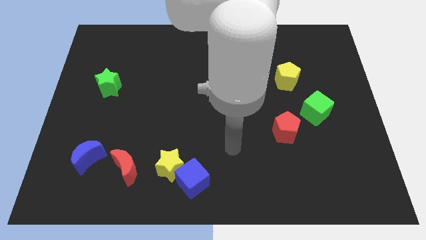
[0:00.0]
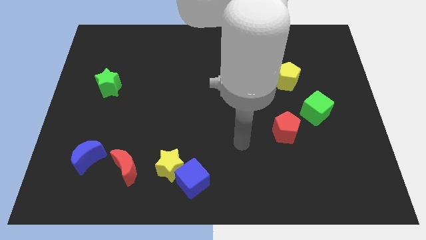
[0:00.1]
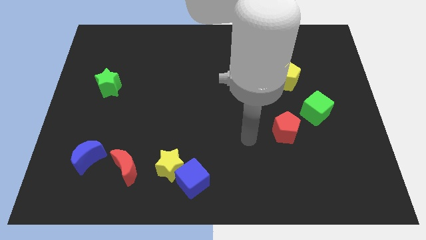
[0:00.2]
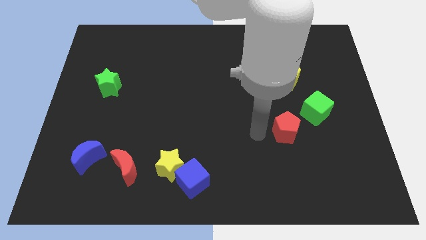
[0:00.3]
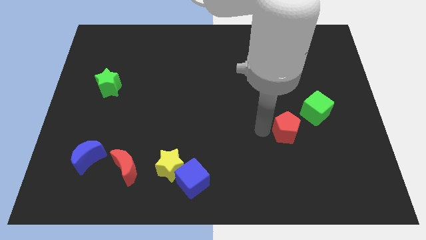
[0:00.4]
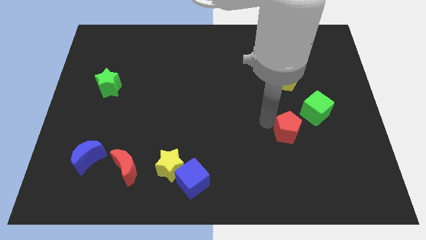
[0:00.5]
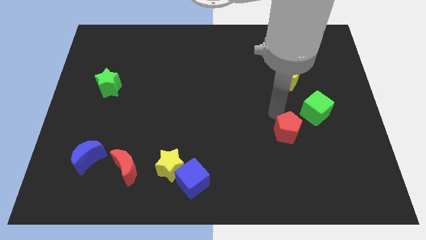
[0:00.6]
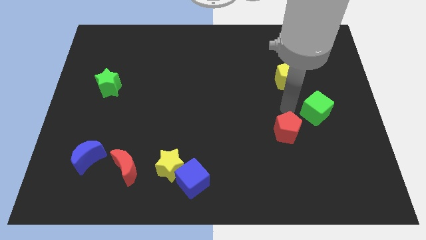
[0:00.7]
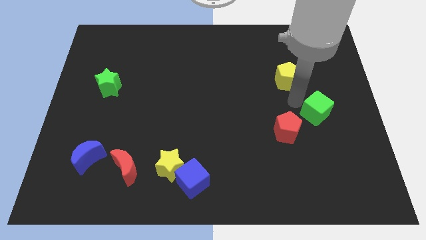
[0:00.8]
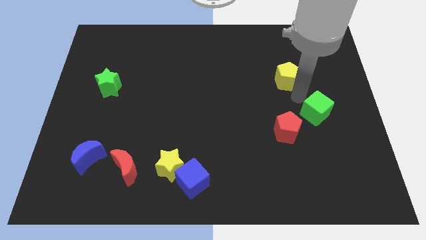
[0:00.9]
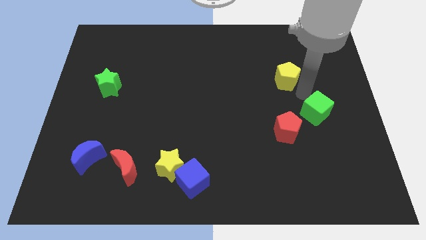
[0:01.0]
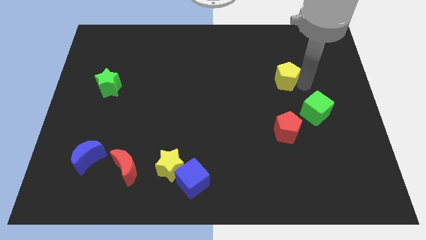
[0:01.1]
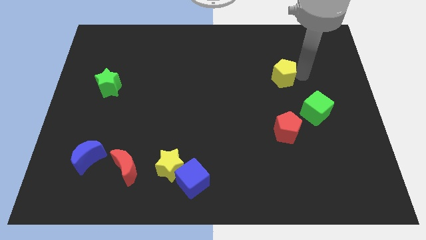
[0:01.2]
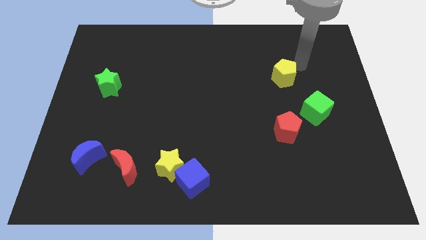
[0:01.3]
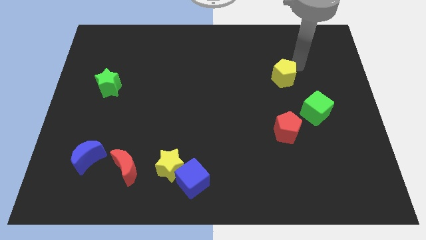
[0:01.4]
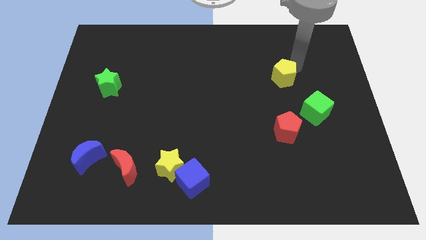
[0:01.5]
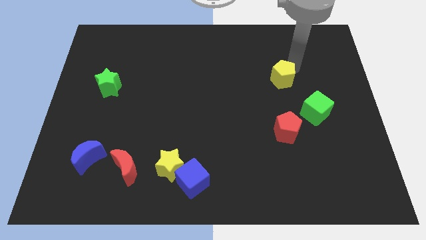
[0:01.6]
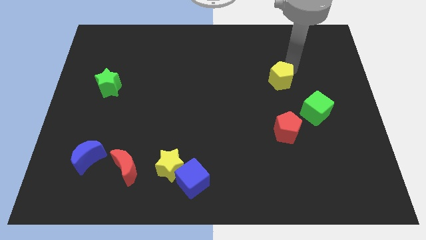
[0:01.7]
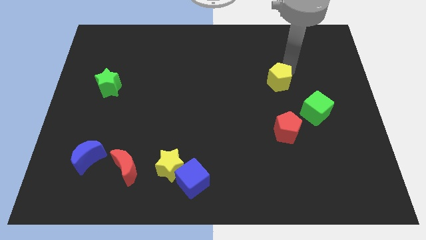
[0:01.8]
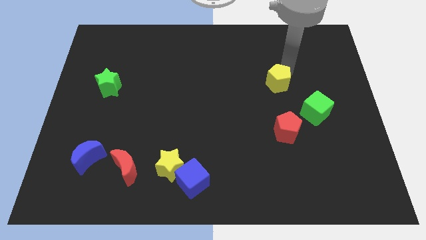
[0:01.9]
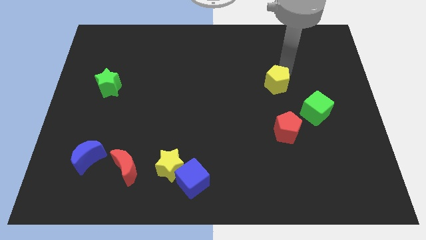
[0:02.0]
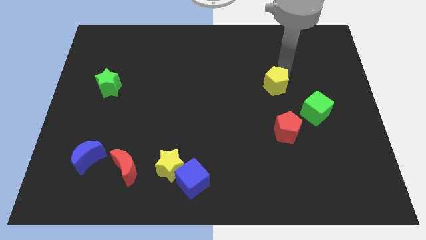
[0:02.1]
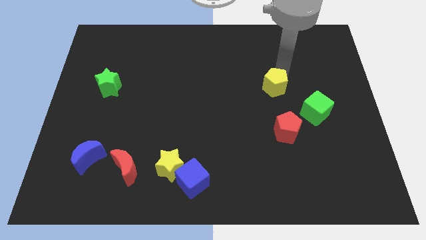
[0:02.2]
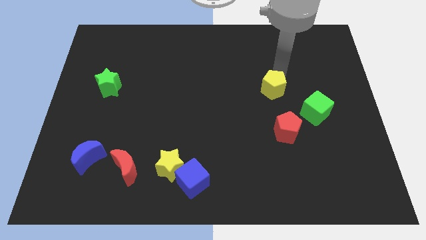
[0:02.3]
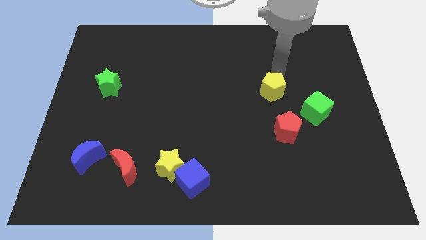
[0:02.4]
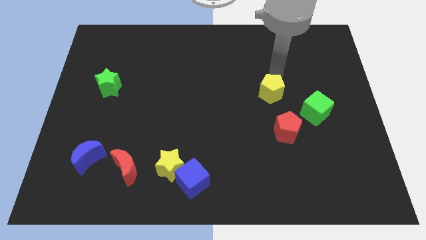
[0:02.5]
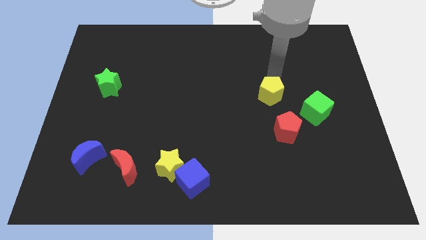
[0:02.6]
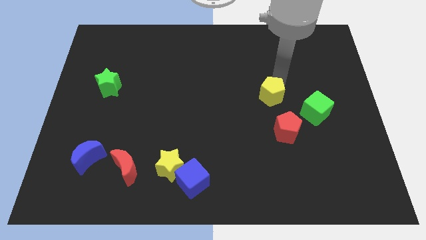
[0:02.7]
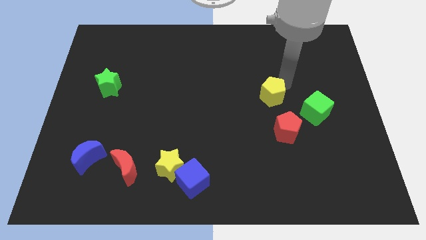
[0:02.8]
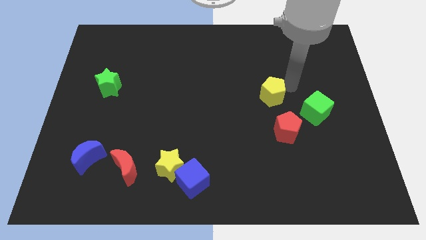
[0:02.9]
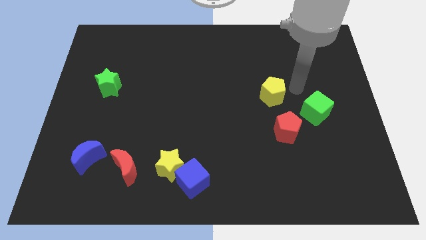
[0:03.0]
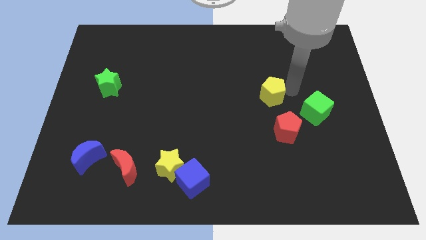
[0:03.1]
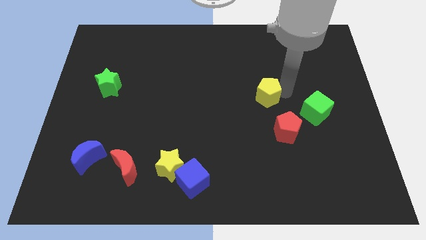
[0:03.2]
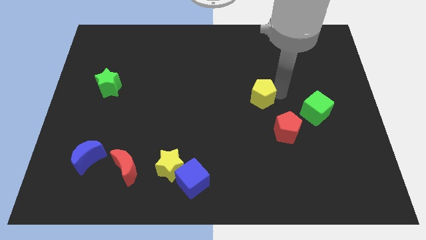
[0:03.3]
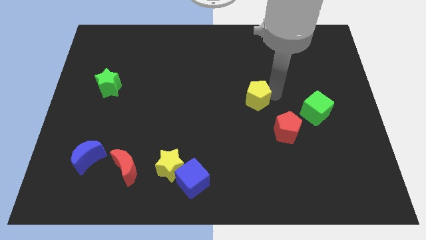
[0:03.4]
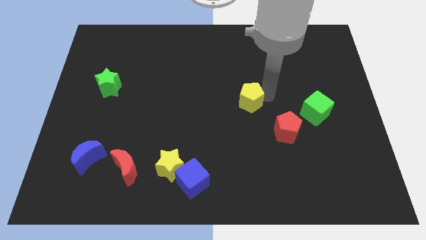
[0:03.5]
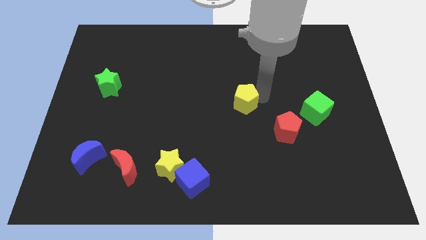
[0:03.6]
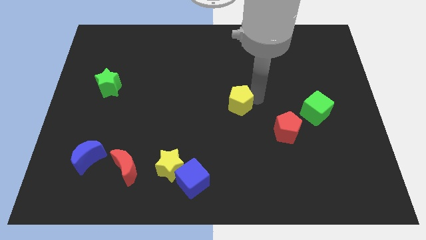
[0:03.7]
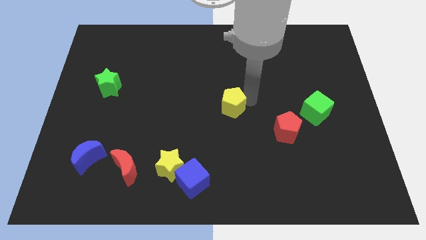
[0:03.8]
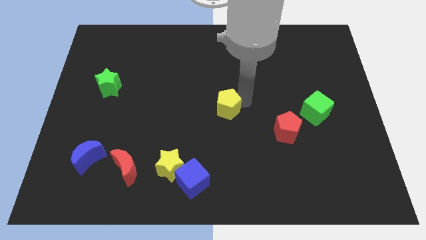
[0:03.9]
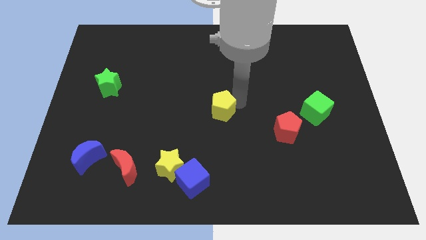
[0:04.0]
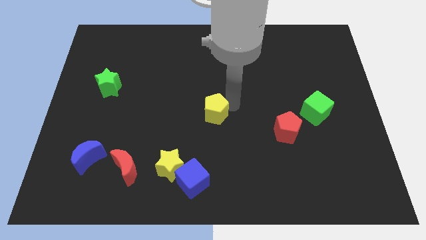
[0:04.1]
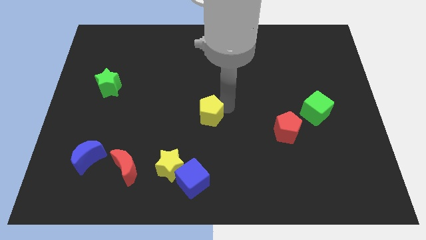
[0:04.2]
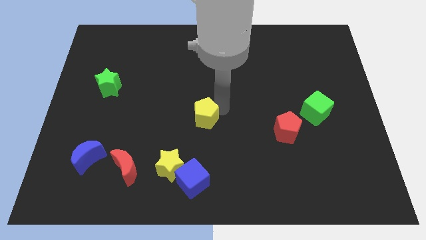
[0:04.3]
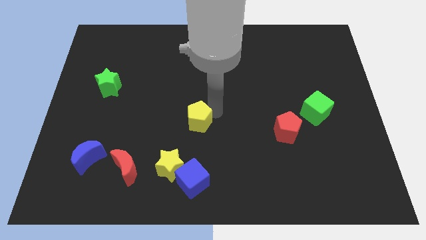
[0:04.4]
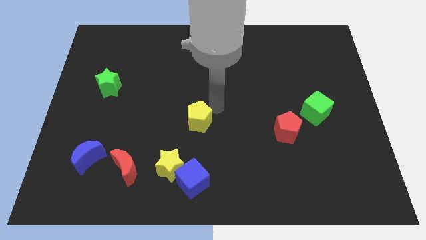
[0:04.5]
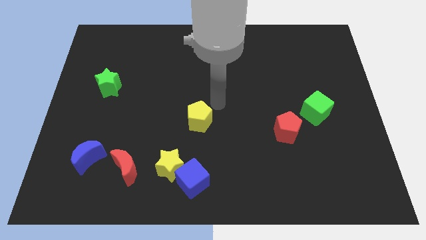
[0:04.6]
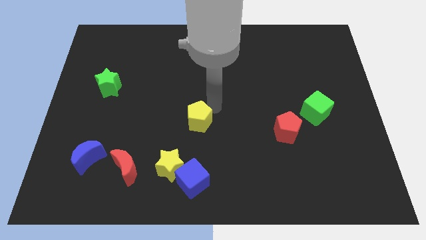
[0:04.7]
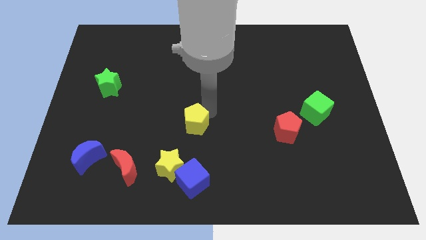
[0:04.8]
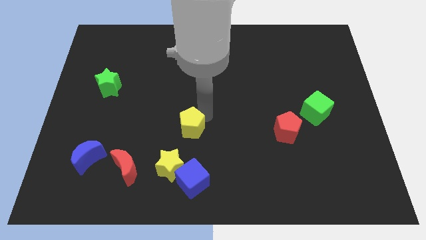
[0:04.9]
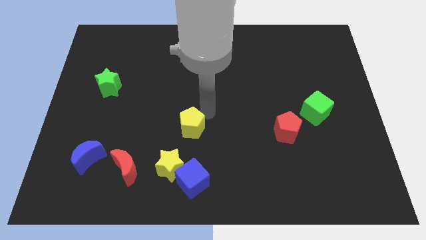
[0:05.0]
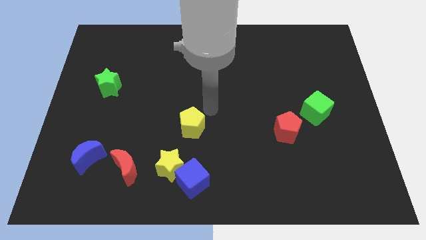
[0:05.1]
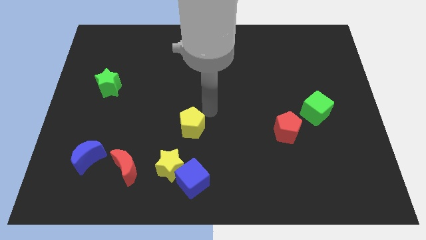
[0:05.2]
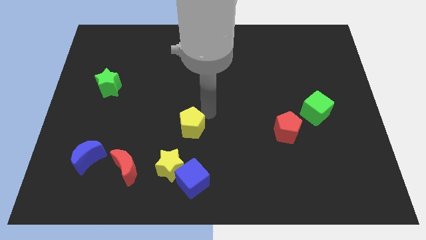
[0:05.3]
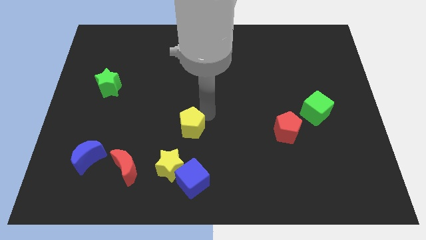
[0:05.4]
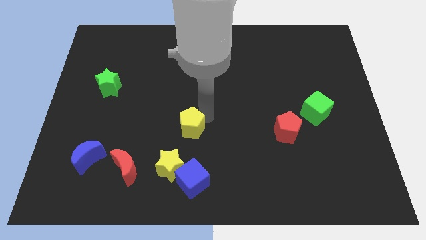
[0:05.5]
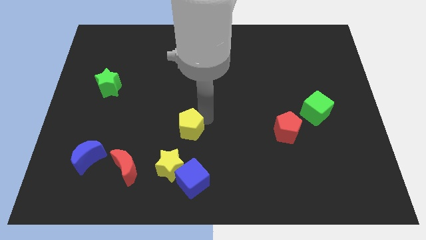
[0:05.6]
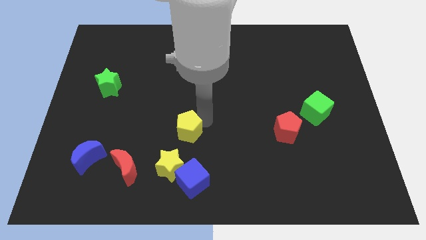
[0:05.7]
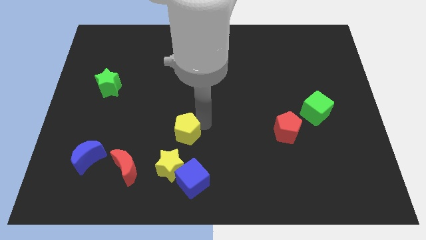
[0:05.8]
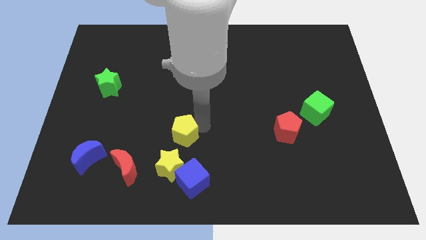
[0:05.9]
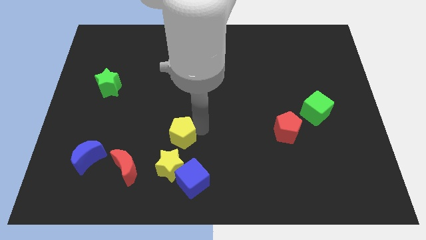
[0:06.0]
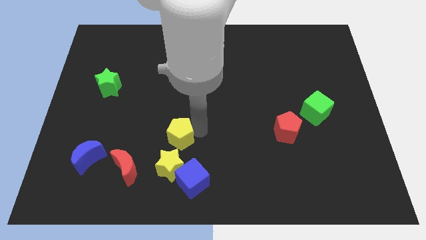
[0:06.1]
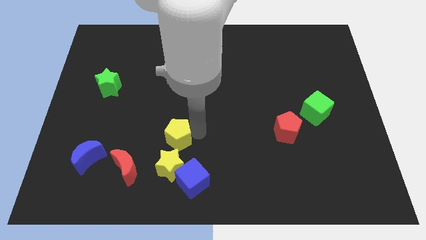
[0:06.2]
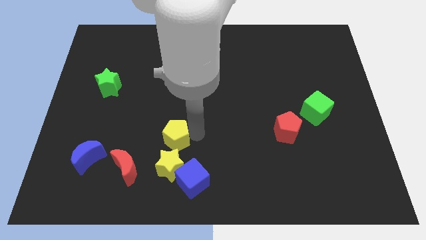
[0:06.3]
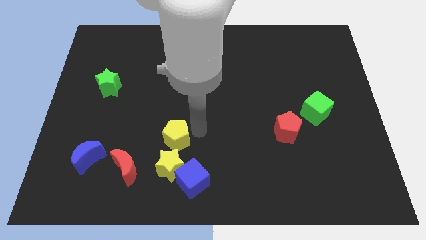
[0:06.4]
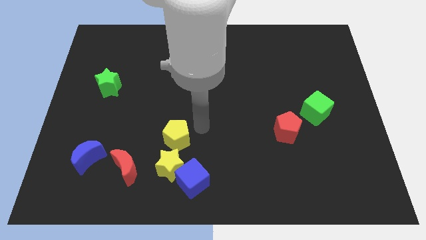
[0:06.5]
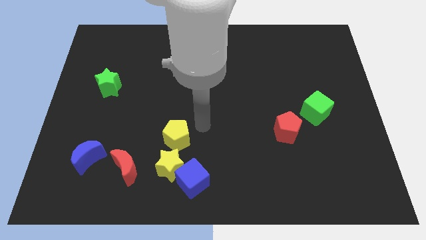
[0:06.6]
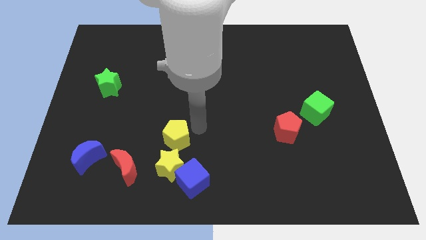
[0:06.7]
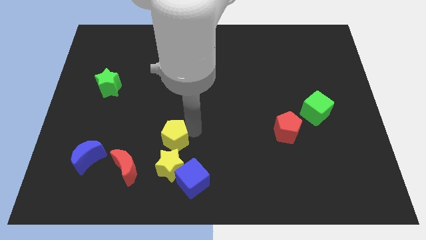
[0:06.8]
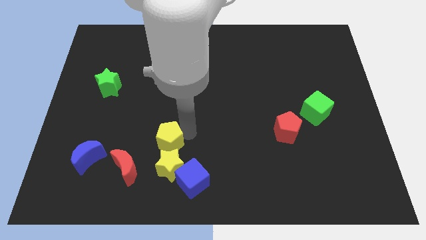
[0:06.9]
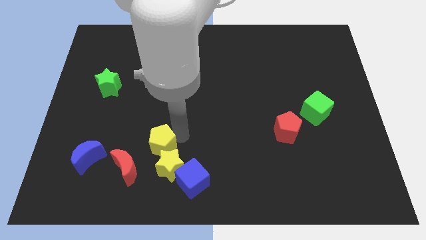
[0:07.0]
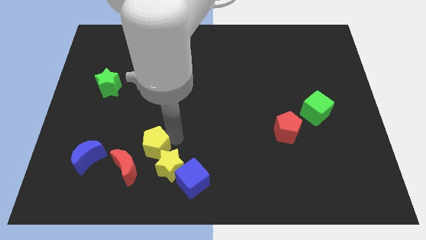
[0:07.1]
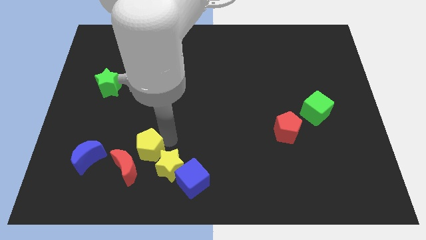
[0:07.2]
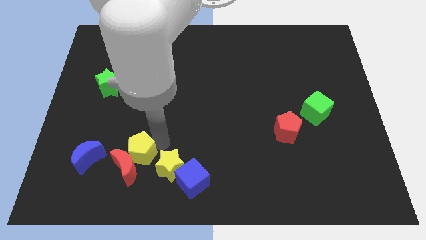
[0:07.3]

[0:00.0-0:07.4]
push the yellow pentagon to the red moon

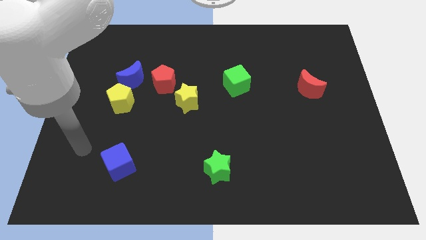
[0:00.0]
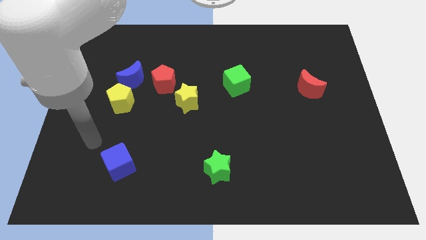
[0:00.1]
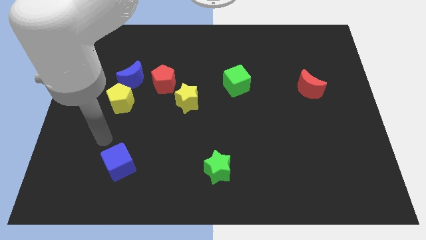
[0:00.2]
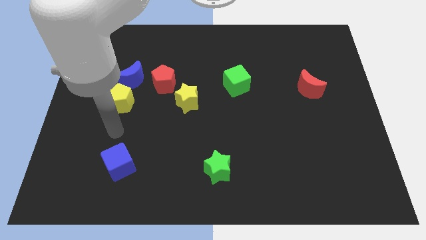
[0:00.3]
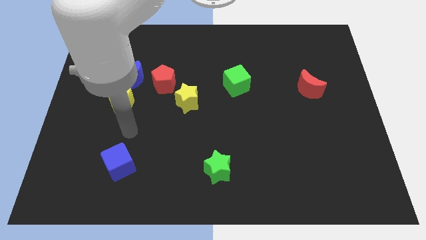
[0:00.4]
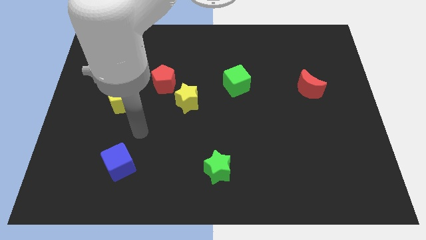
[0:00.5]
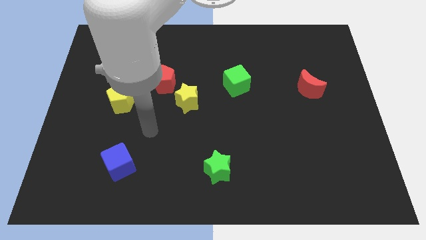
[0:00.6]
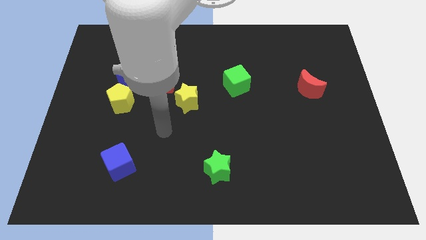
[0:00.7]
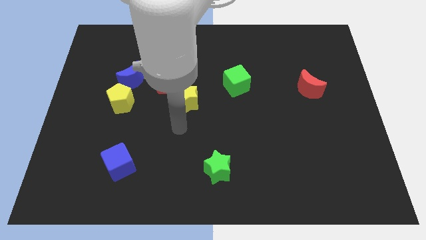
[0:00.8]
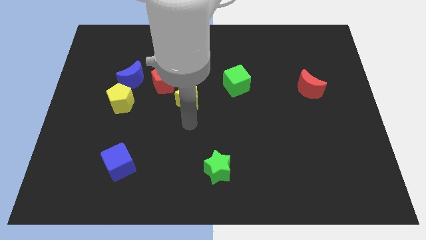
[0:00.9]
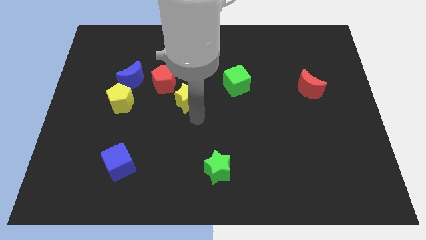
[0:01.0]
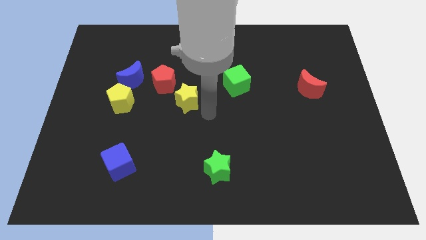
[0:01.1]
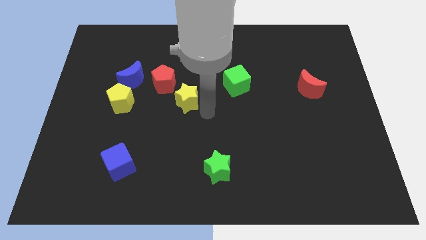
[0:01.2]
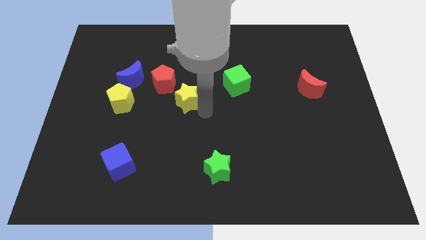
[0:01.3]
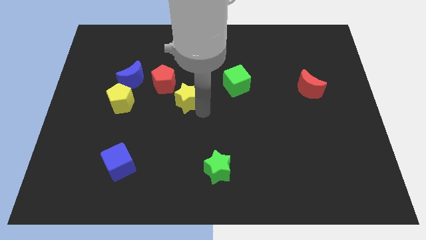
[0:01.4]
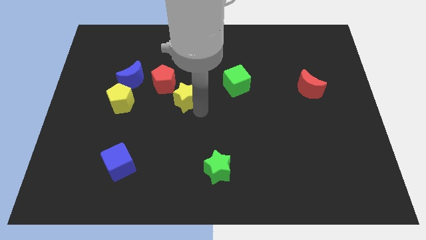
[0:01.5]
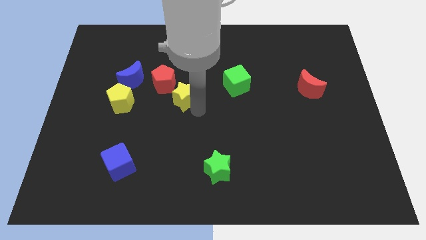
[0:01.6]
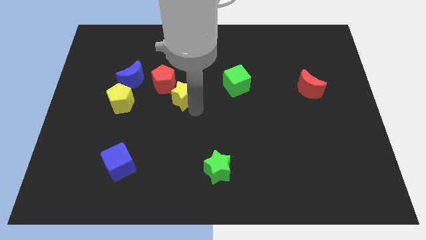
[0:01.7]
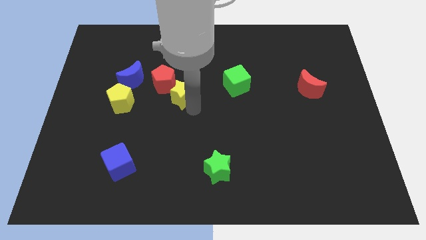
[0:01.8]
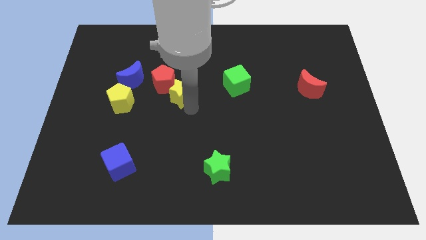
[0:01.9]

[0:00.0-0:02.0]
slide the yellow star close to the red pentagon
